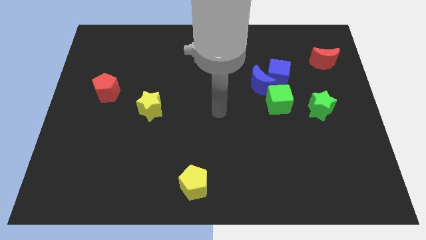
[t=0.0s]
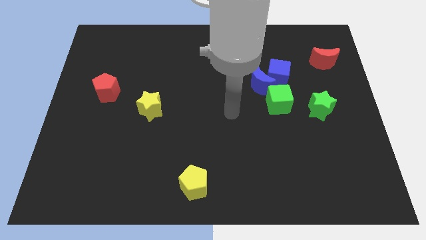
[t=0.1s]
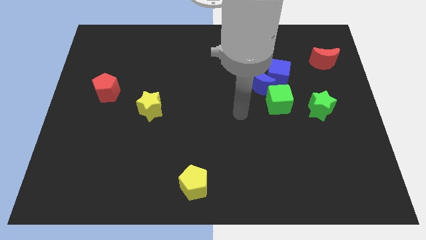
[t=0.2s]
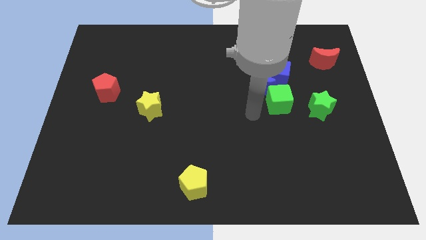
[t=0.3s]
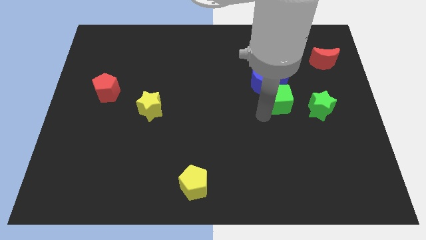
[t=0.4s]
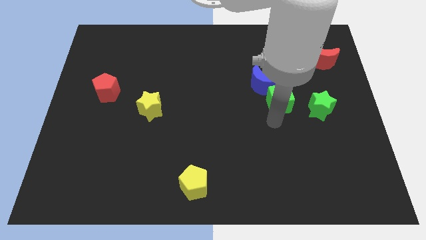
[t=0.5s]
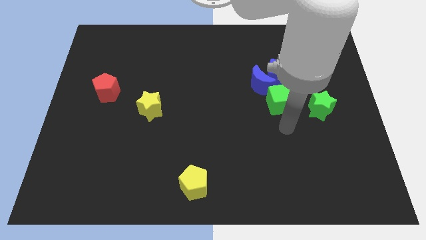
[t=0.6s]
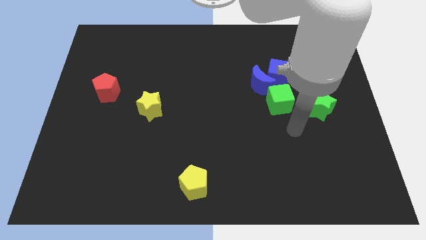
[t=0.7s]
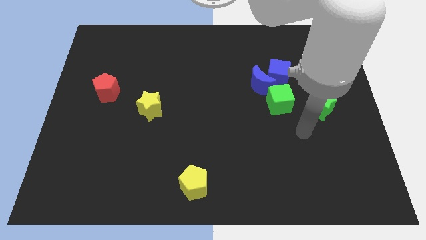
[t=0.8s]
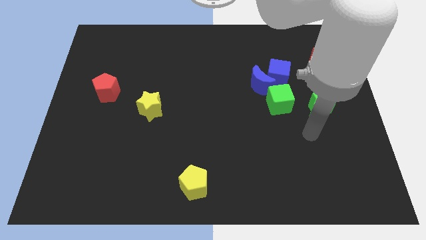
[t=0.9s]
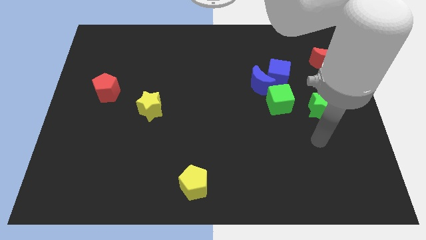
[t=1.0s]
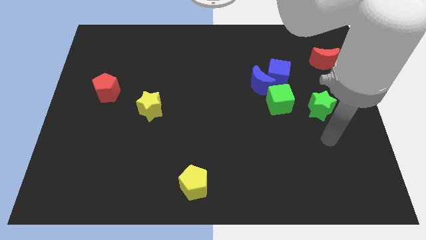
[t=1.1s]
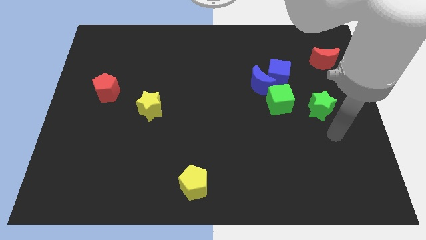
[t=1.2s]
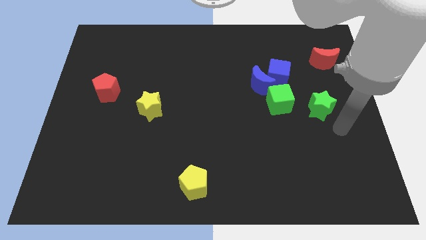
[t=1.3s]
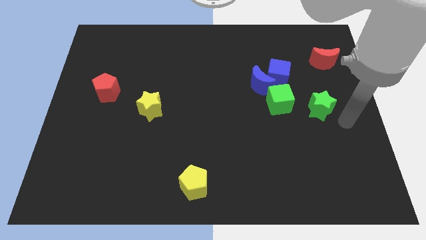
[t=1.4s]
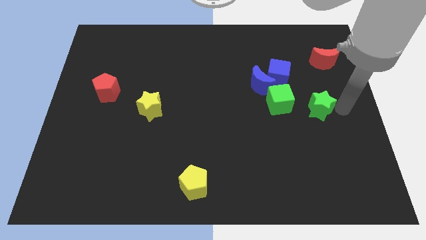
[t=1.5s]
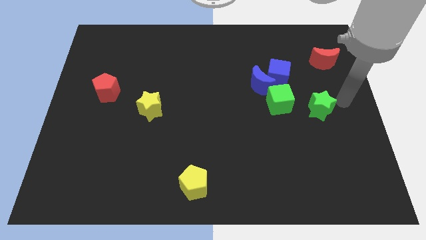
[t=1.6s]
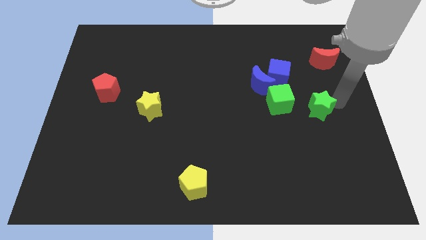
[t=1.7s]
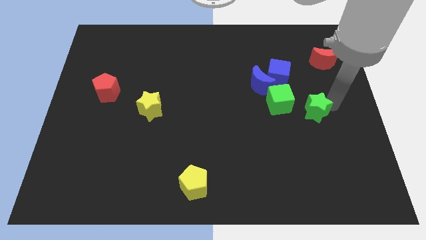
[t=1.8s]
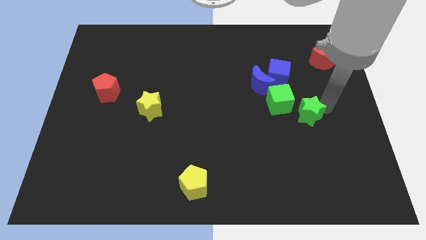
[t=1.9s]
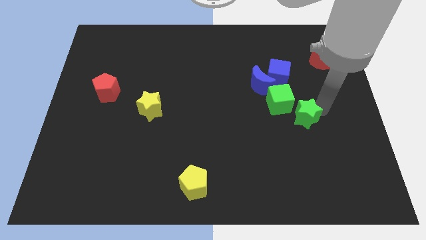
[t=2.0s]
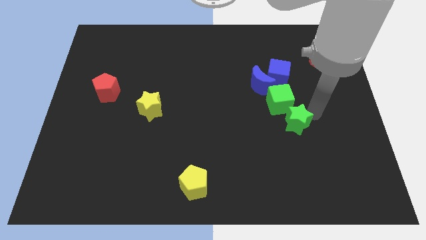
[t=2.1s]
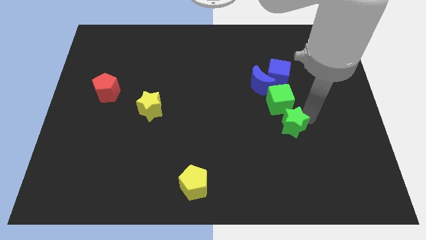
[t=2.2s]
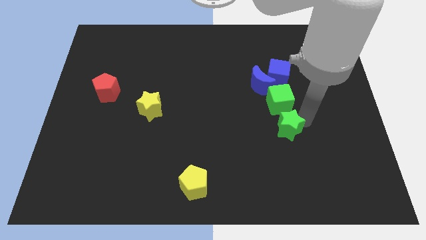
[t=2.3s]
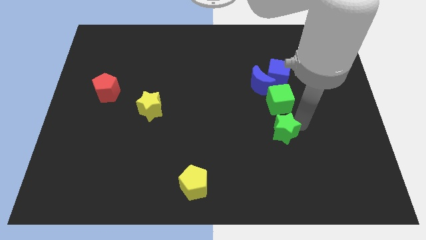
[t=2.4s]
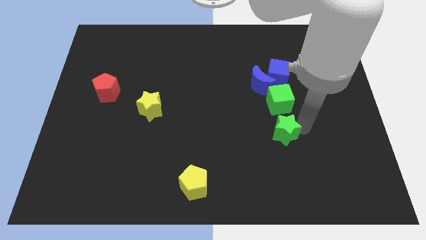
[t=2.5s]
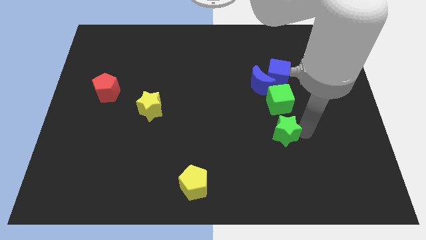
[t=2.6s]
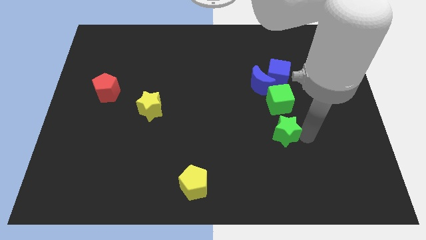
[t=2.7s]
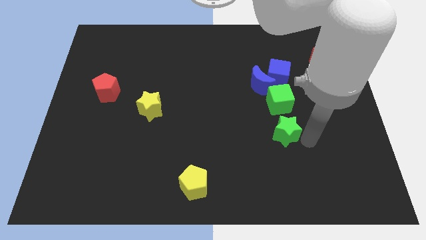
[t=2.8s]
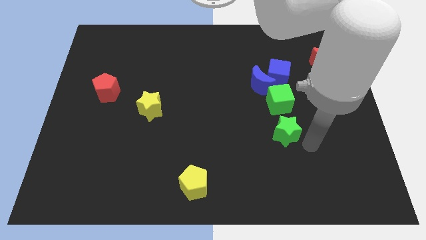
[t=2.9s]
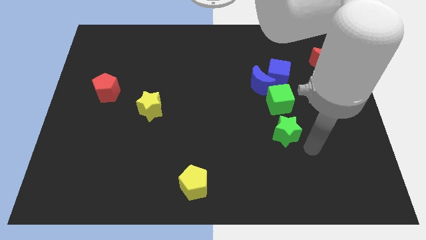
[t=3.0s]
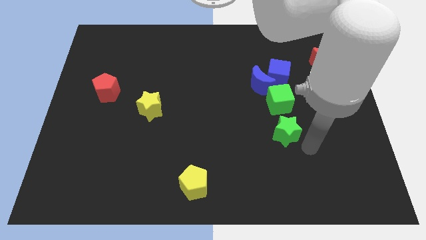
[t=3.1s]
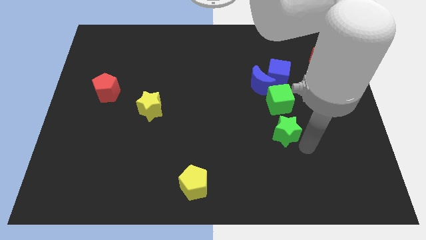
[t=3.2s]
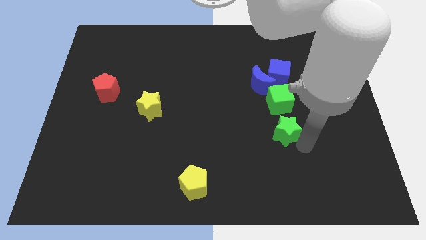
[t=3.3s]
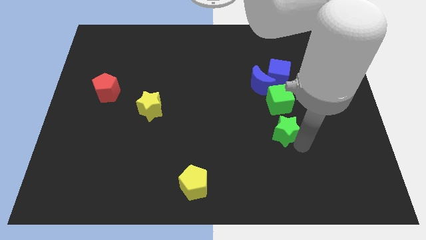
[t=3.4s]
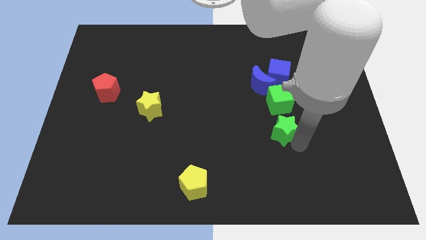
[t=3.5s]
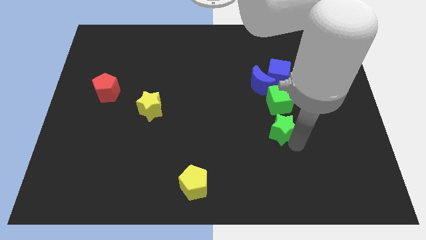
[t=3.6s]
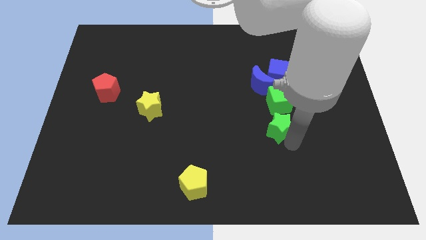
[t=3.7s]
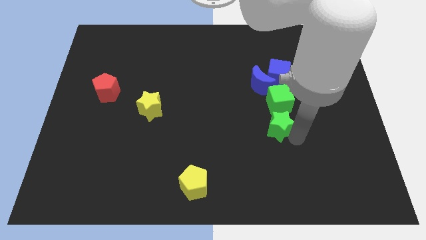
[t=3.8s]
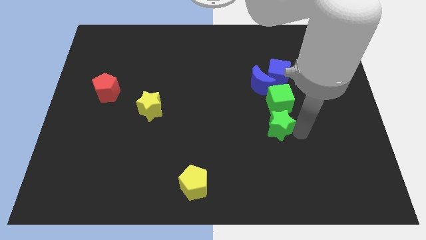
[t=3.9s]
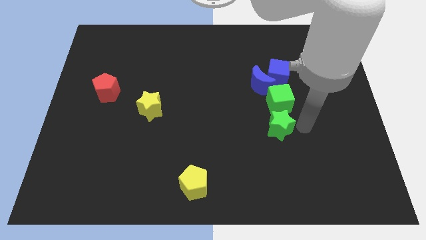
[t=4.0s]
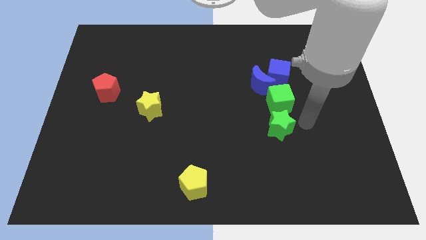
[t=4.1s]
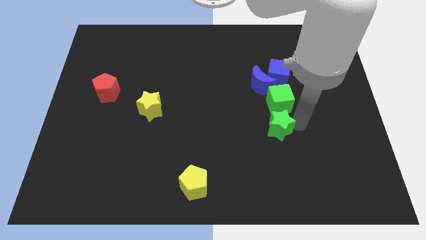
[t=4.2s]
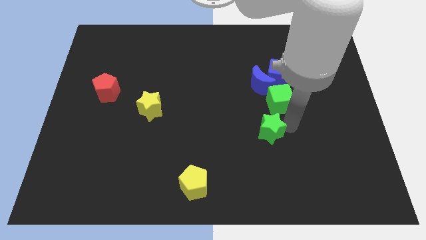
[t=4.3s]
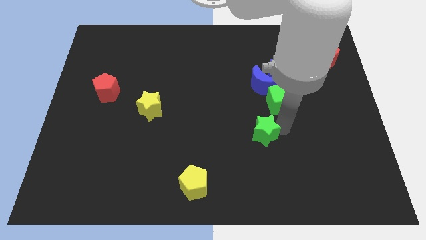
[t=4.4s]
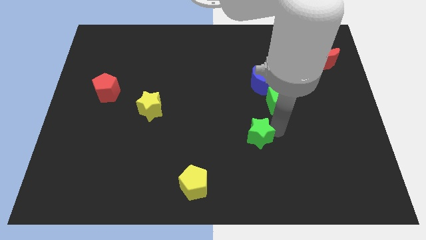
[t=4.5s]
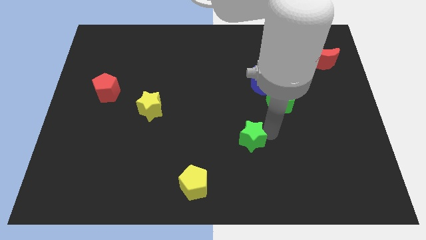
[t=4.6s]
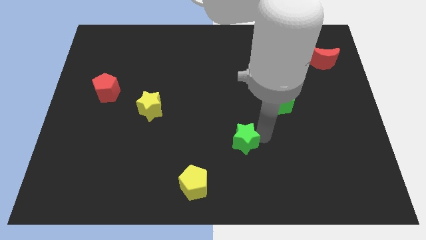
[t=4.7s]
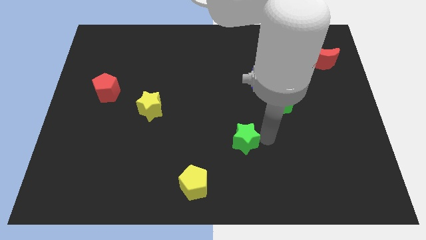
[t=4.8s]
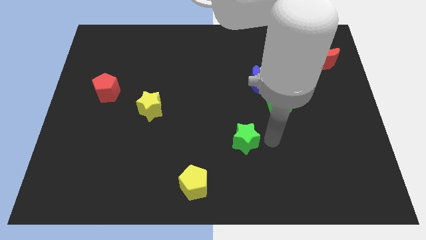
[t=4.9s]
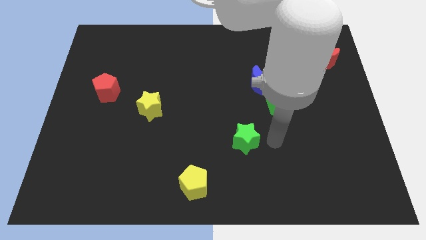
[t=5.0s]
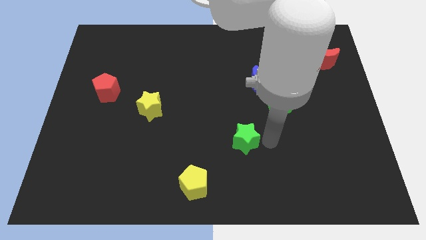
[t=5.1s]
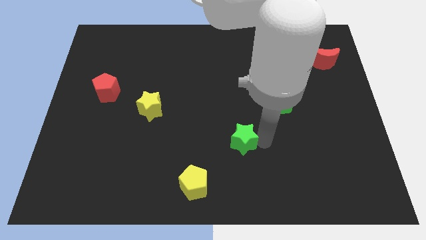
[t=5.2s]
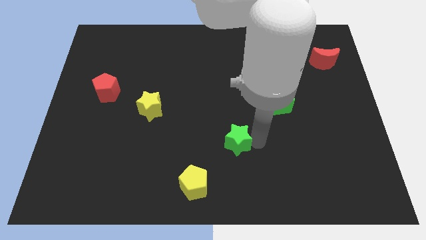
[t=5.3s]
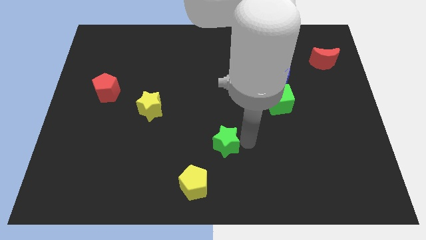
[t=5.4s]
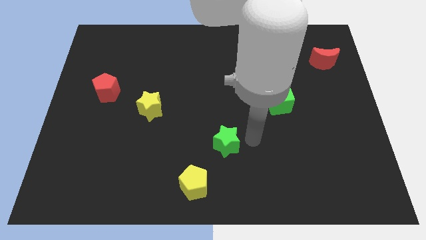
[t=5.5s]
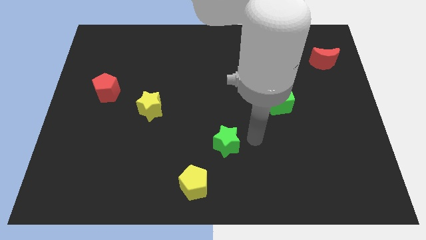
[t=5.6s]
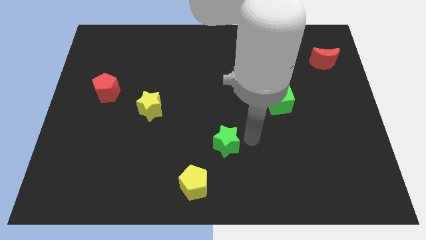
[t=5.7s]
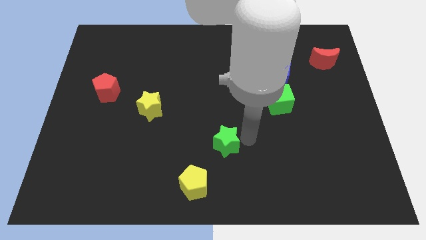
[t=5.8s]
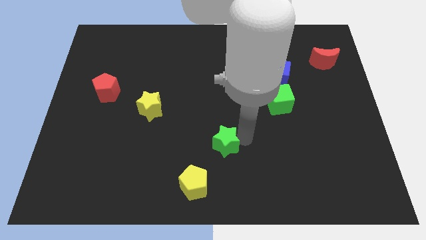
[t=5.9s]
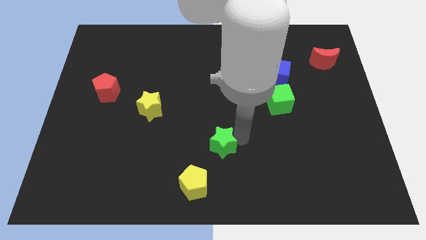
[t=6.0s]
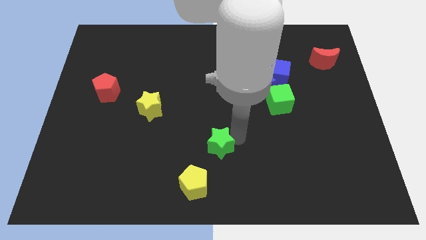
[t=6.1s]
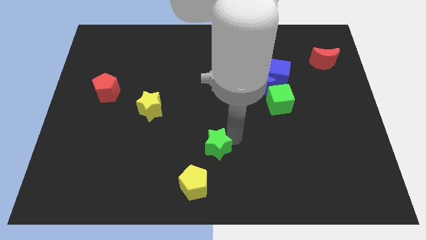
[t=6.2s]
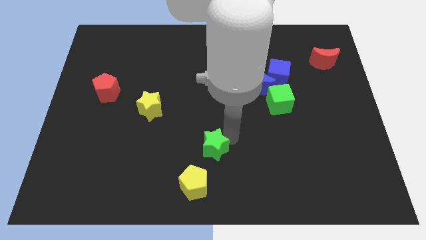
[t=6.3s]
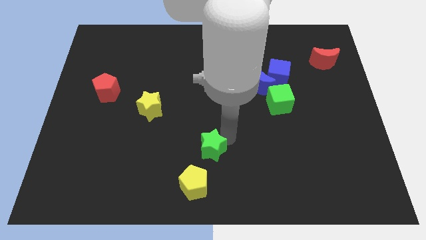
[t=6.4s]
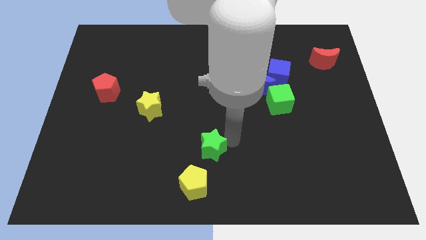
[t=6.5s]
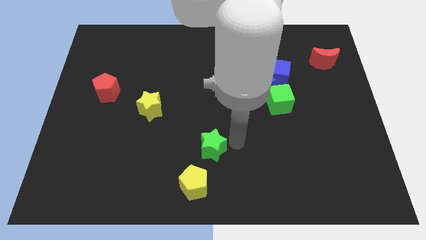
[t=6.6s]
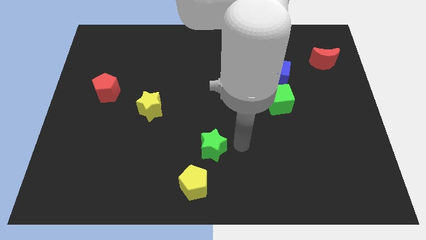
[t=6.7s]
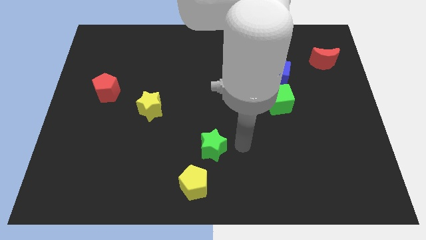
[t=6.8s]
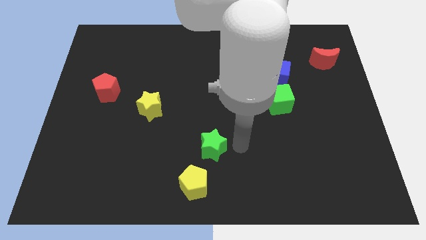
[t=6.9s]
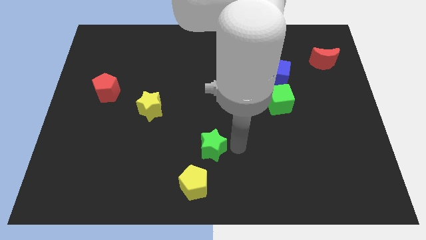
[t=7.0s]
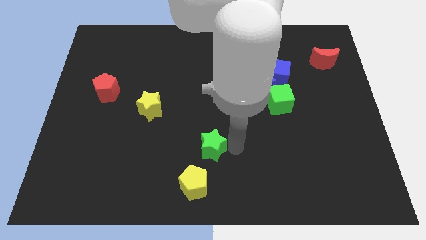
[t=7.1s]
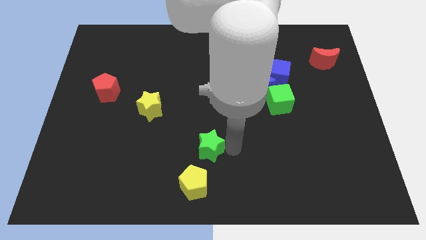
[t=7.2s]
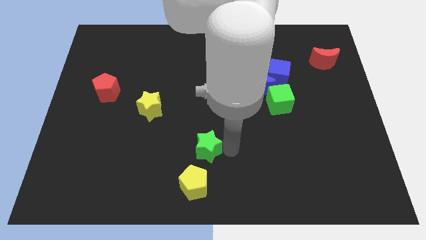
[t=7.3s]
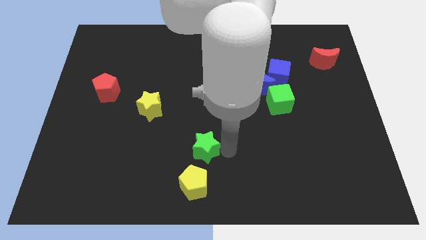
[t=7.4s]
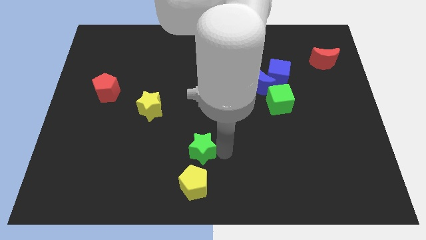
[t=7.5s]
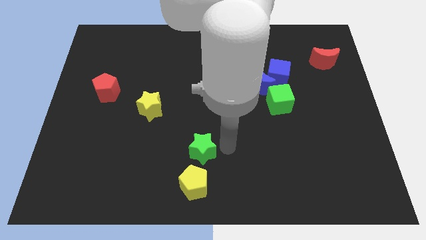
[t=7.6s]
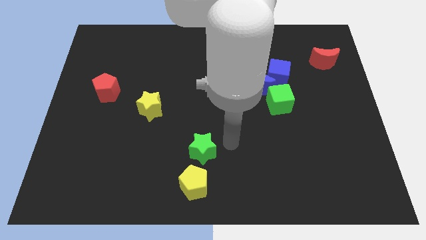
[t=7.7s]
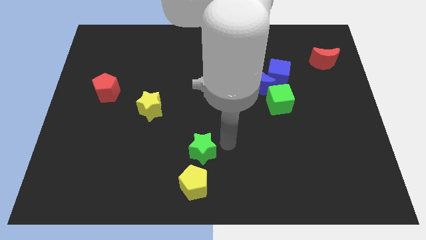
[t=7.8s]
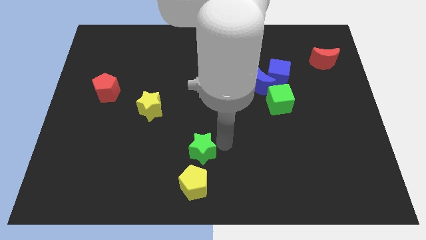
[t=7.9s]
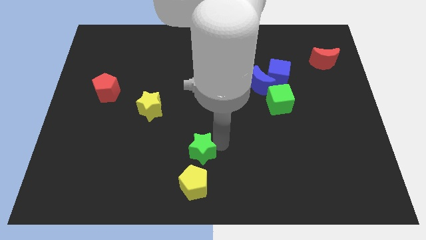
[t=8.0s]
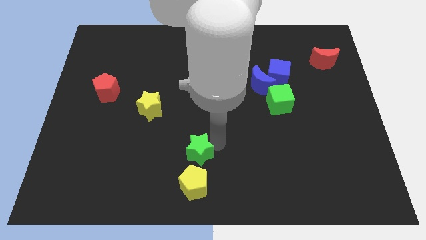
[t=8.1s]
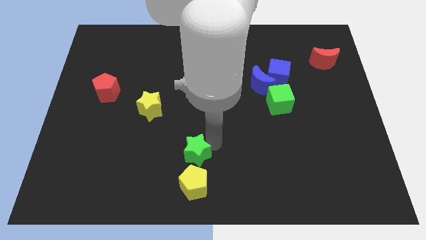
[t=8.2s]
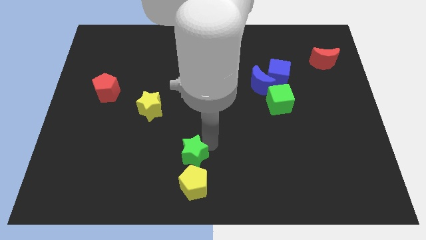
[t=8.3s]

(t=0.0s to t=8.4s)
slide the green star to the top left side of the yellow pentagon
